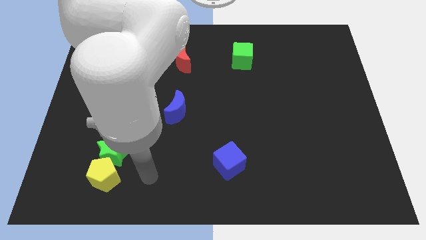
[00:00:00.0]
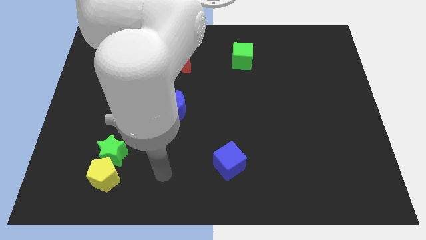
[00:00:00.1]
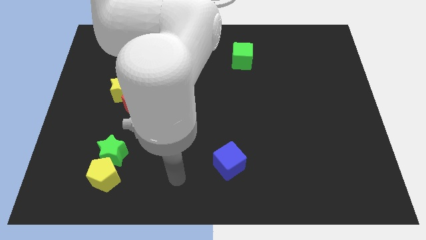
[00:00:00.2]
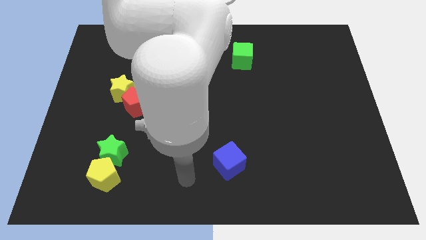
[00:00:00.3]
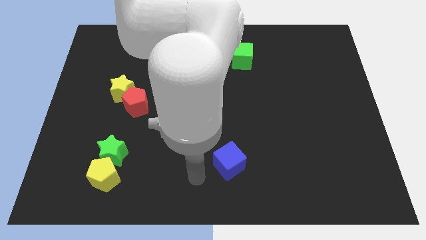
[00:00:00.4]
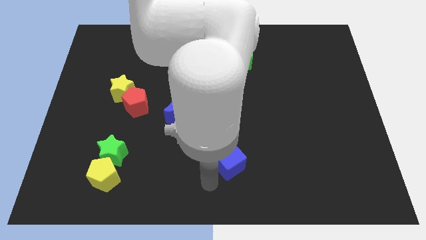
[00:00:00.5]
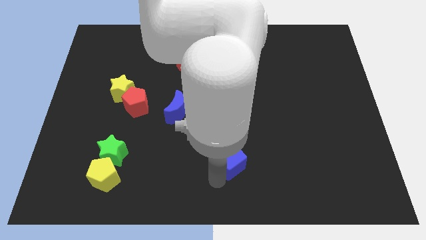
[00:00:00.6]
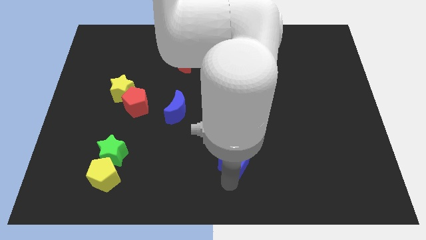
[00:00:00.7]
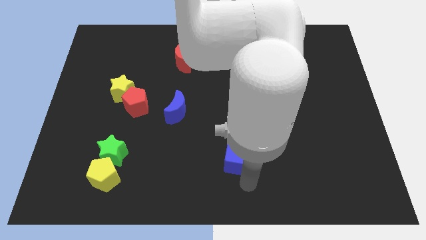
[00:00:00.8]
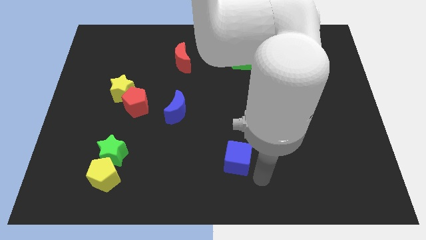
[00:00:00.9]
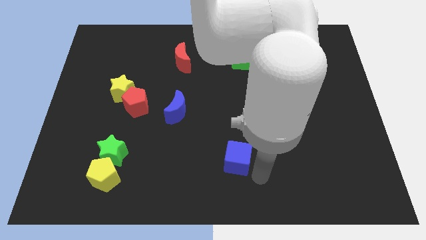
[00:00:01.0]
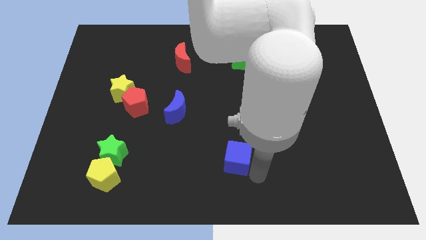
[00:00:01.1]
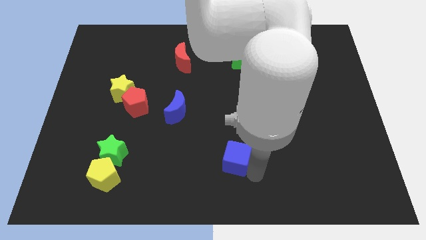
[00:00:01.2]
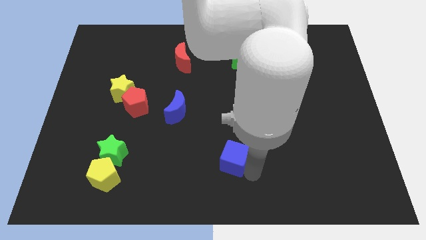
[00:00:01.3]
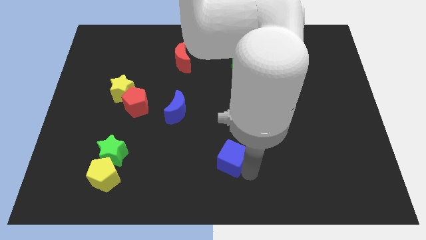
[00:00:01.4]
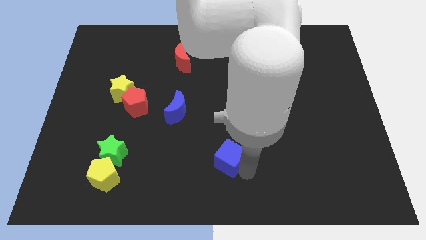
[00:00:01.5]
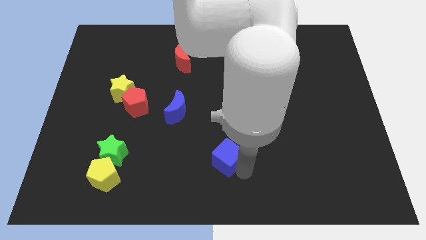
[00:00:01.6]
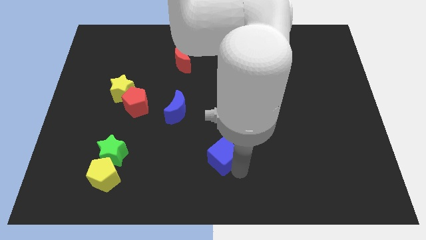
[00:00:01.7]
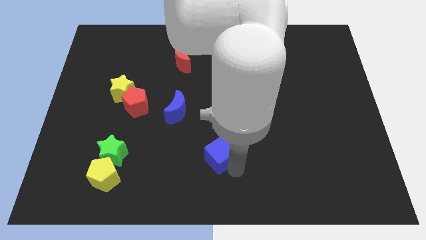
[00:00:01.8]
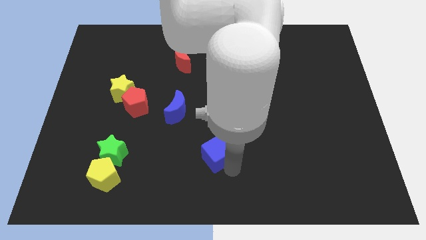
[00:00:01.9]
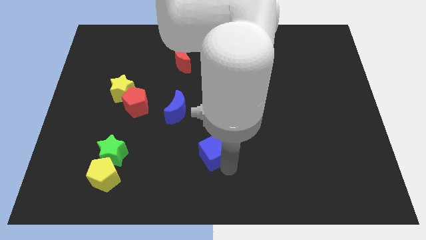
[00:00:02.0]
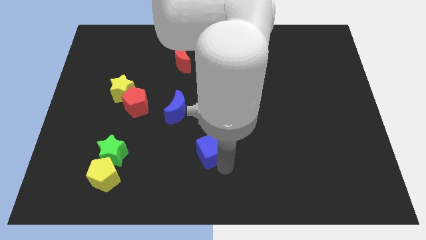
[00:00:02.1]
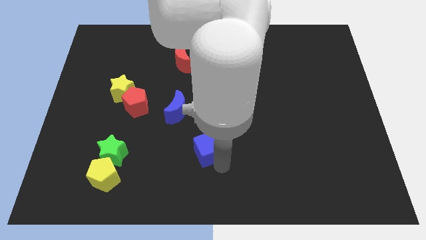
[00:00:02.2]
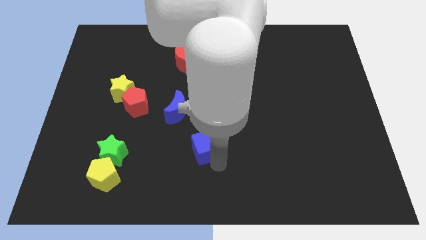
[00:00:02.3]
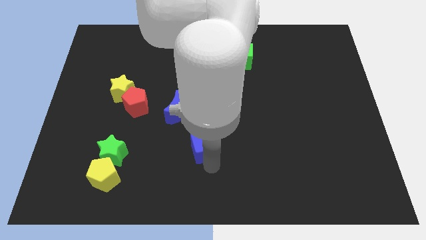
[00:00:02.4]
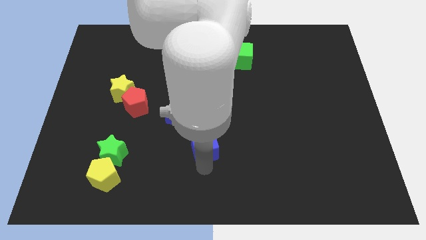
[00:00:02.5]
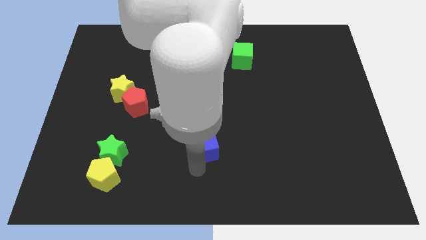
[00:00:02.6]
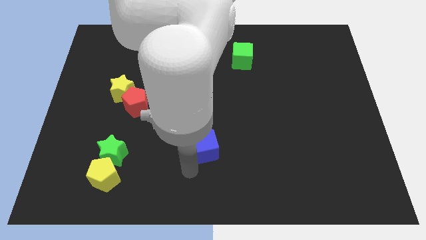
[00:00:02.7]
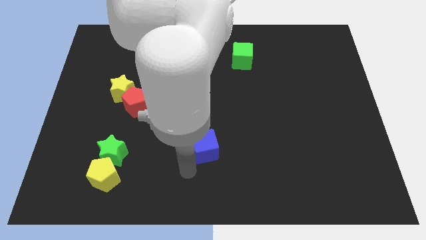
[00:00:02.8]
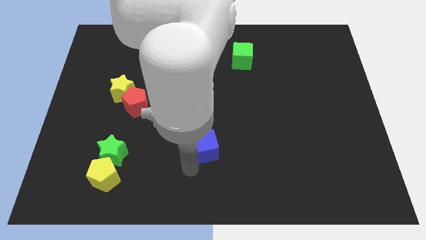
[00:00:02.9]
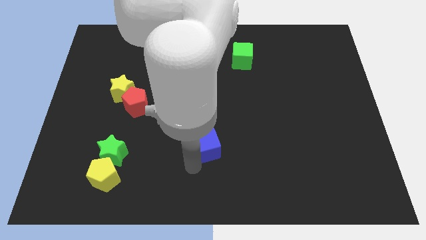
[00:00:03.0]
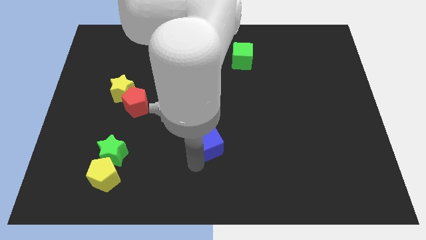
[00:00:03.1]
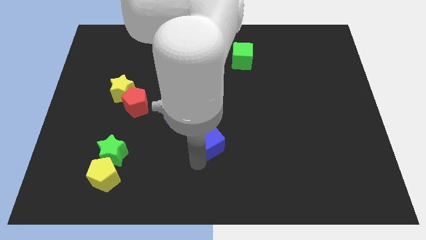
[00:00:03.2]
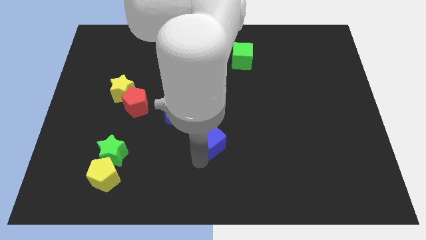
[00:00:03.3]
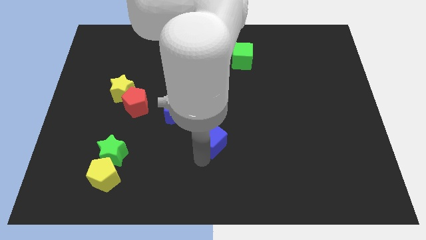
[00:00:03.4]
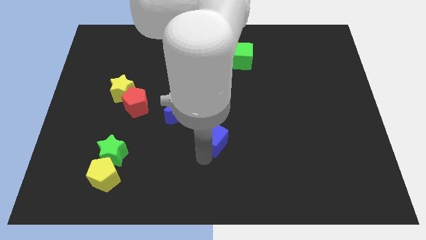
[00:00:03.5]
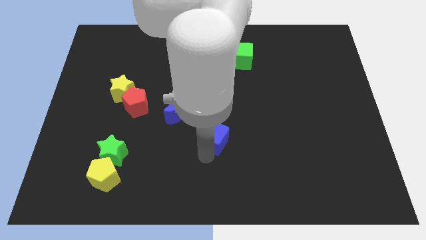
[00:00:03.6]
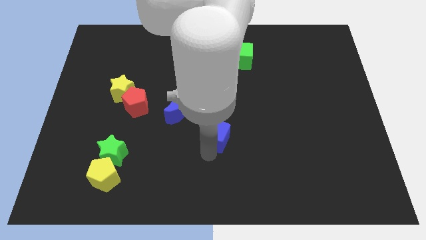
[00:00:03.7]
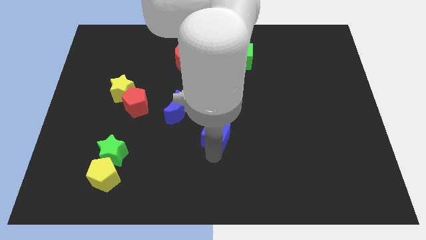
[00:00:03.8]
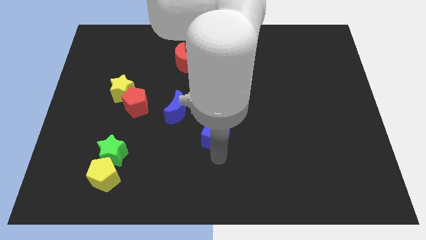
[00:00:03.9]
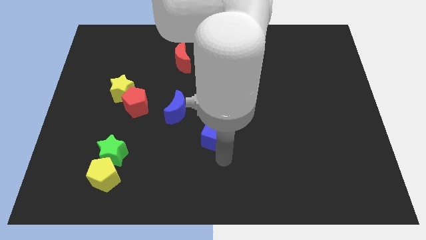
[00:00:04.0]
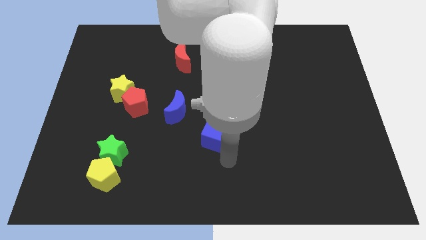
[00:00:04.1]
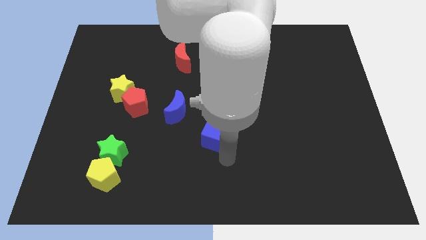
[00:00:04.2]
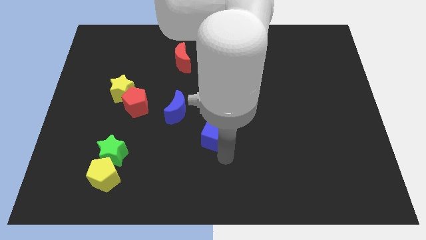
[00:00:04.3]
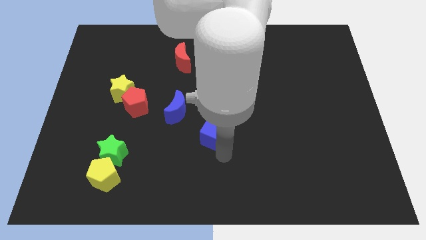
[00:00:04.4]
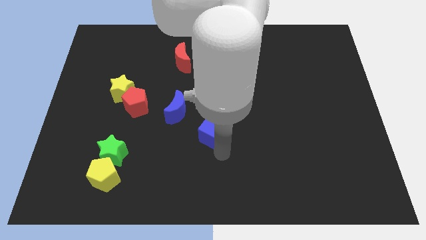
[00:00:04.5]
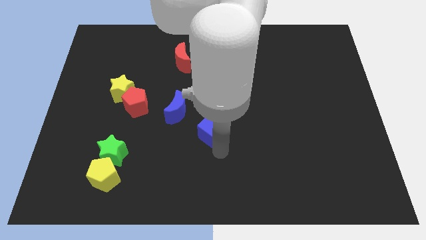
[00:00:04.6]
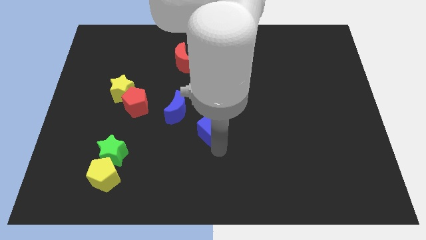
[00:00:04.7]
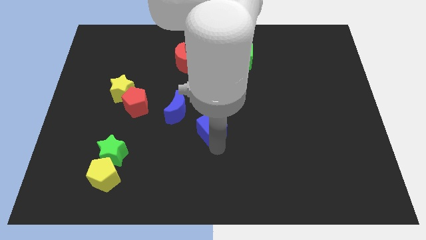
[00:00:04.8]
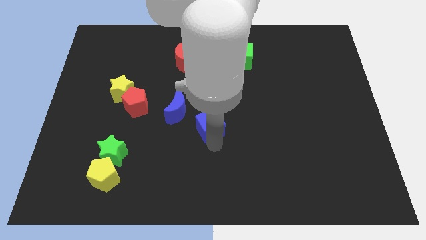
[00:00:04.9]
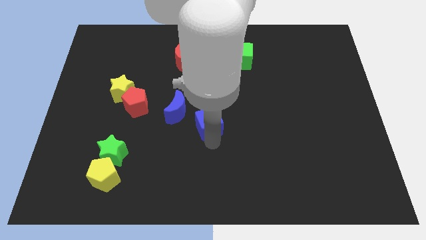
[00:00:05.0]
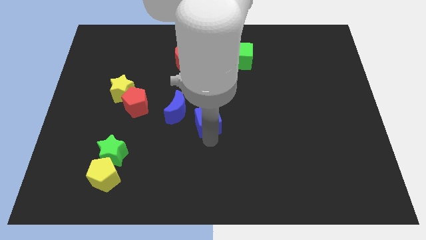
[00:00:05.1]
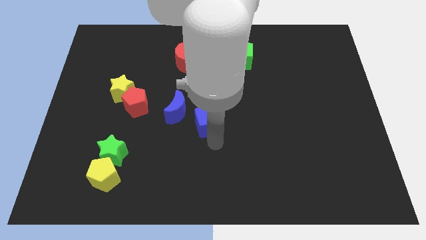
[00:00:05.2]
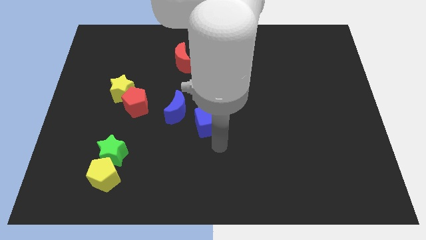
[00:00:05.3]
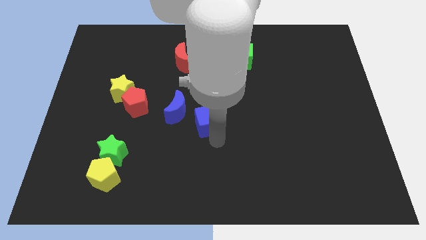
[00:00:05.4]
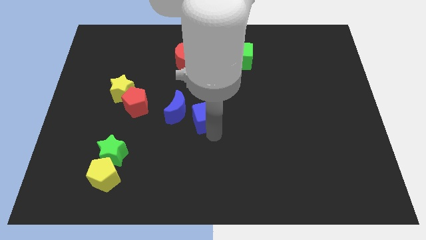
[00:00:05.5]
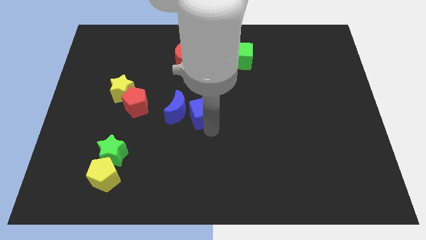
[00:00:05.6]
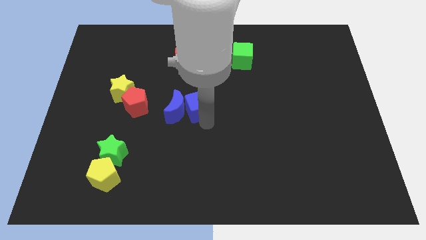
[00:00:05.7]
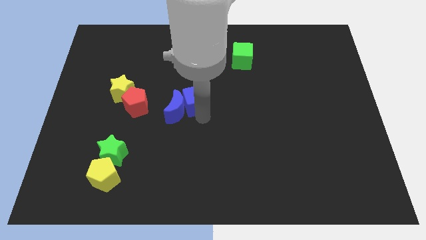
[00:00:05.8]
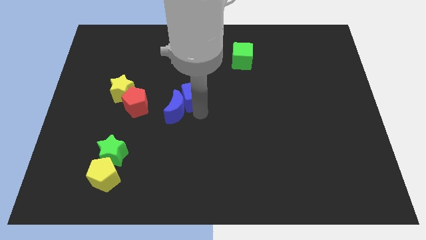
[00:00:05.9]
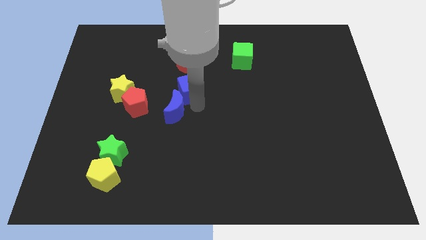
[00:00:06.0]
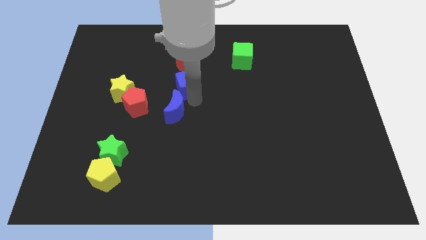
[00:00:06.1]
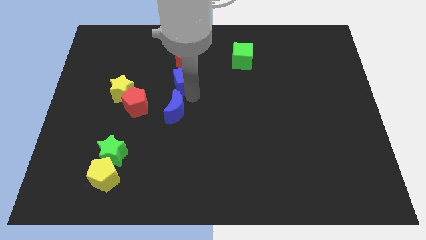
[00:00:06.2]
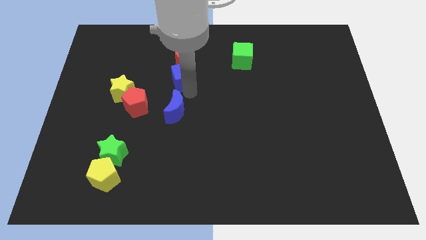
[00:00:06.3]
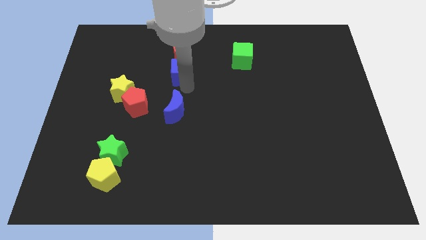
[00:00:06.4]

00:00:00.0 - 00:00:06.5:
slide the blue cube to the red moon

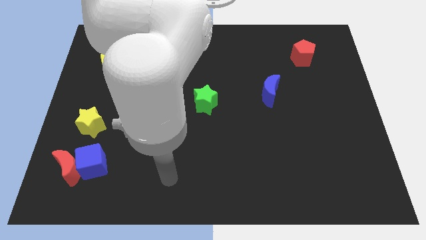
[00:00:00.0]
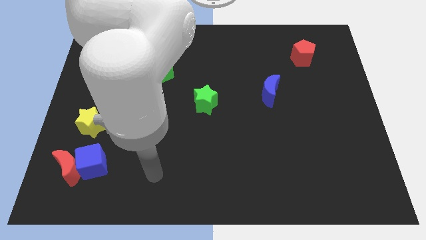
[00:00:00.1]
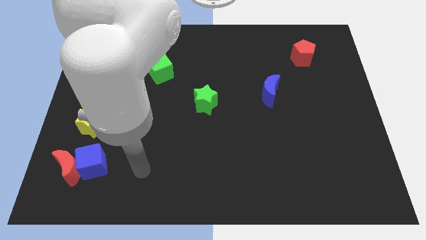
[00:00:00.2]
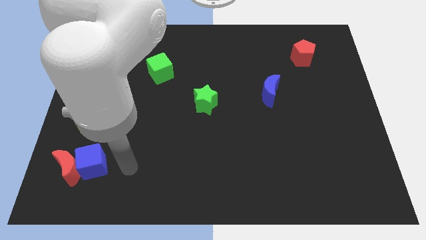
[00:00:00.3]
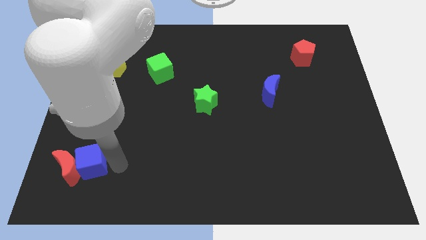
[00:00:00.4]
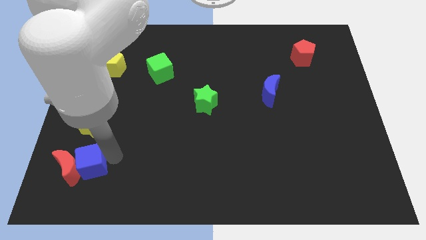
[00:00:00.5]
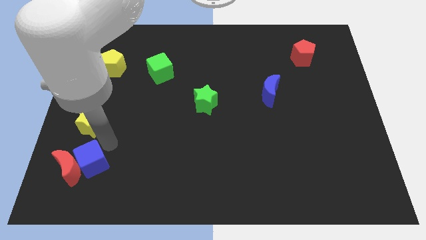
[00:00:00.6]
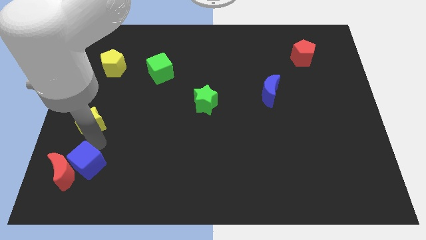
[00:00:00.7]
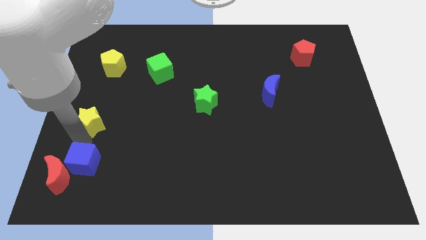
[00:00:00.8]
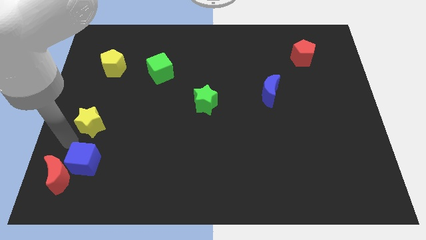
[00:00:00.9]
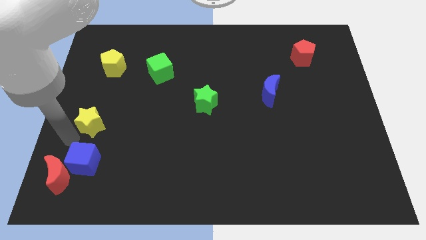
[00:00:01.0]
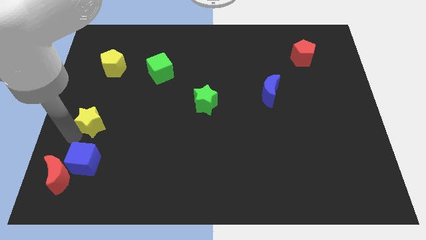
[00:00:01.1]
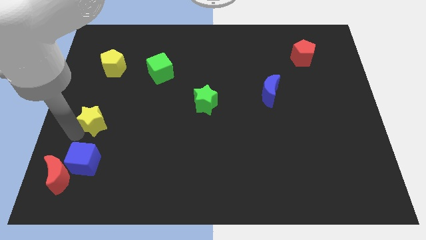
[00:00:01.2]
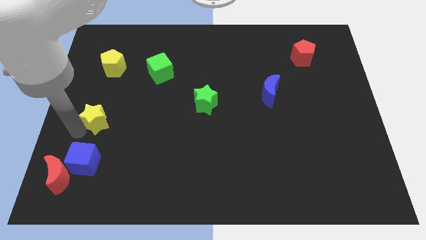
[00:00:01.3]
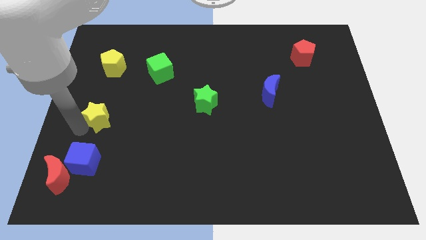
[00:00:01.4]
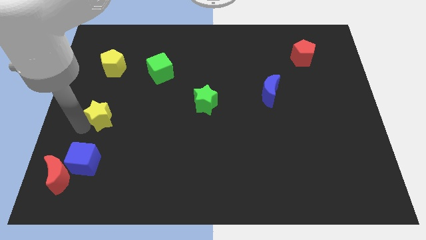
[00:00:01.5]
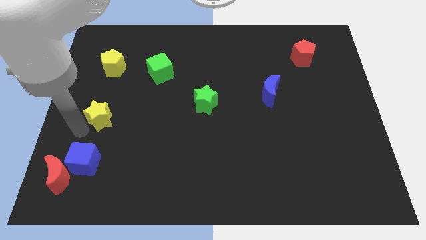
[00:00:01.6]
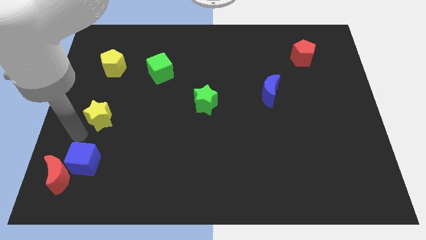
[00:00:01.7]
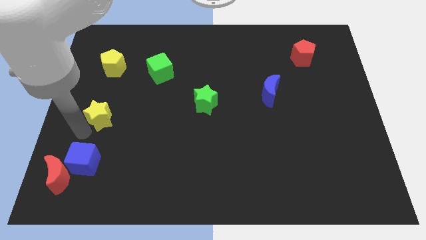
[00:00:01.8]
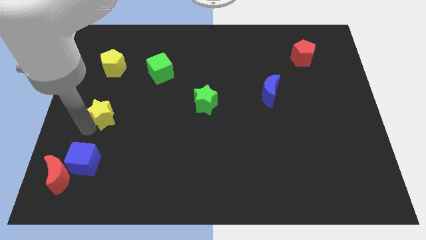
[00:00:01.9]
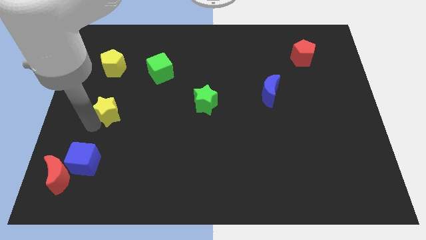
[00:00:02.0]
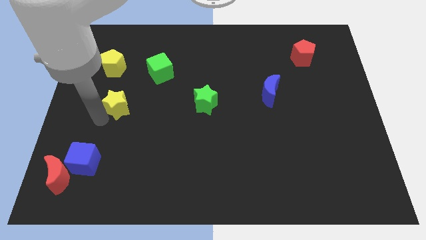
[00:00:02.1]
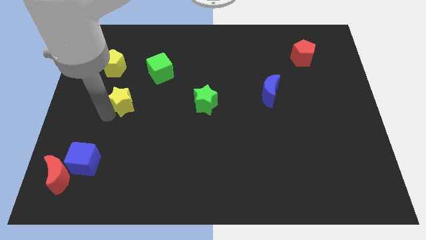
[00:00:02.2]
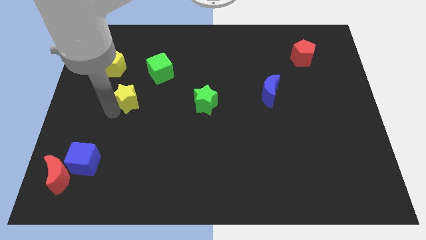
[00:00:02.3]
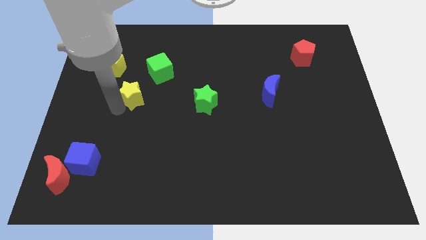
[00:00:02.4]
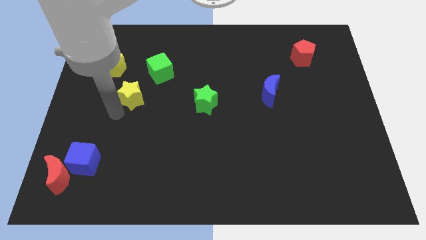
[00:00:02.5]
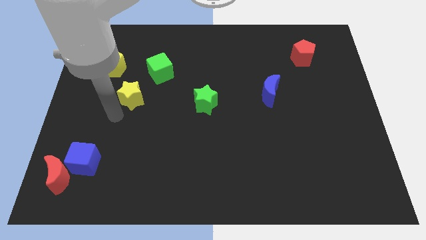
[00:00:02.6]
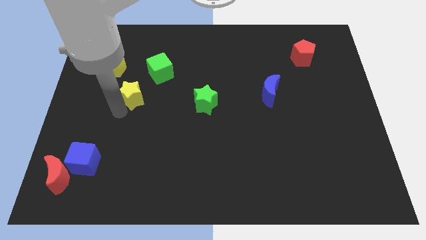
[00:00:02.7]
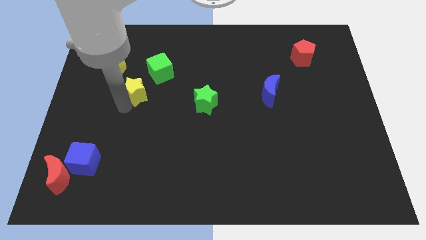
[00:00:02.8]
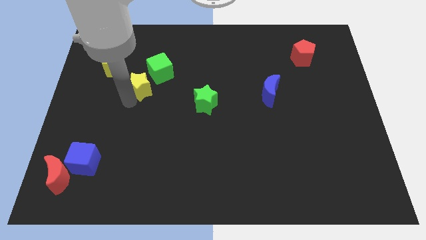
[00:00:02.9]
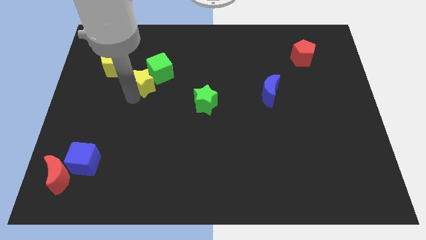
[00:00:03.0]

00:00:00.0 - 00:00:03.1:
push the yellow star close to the green cube
